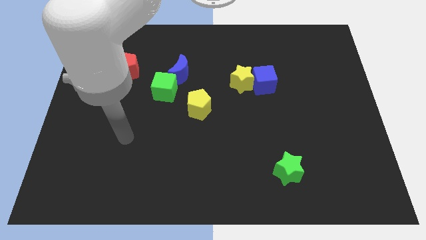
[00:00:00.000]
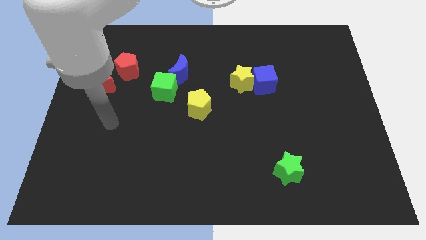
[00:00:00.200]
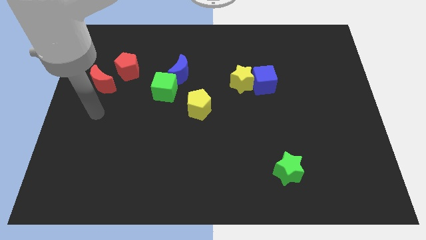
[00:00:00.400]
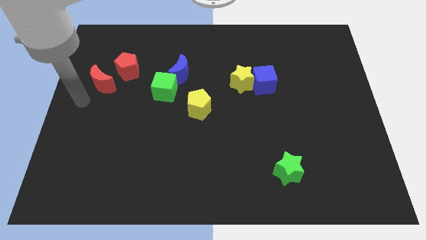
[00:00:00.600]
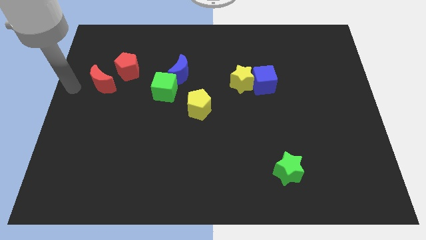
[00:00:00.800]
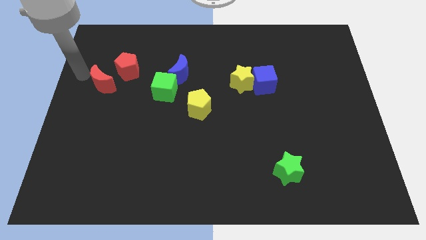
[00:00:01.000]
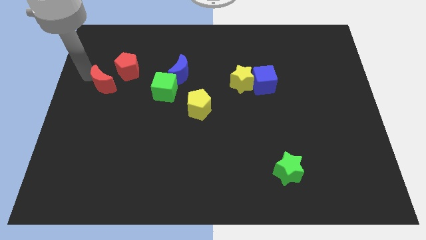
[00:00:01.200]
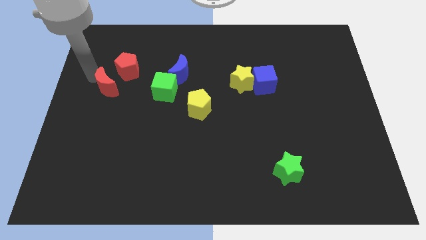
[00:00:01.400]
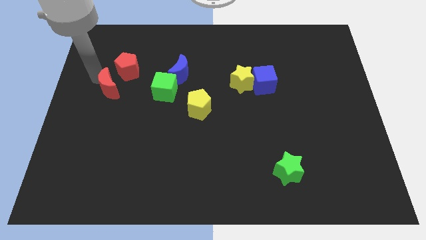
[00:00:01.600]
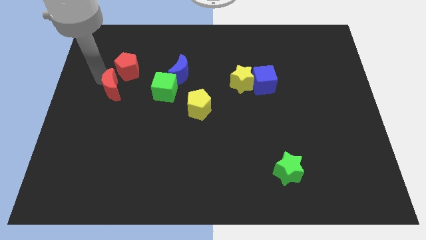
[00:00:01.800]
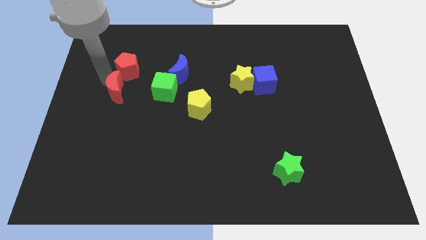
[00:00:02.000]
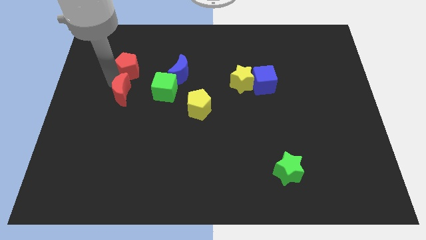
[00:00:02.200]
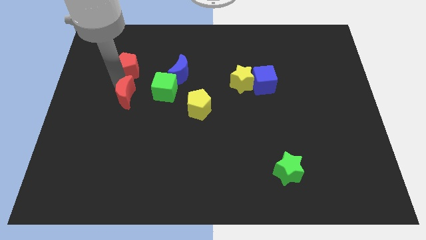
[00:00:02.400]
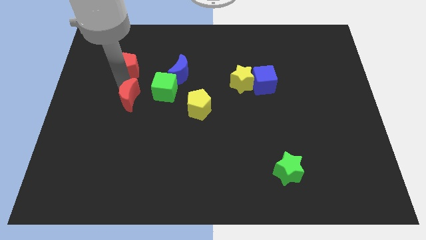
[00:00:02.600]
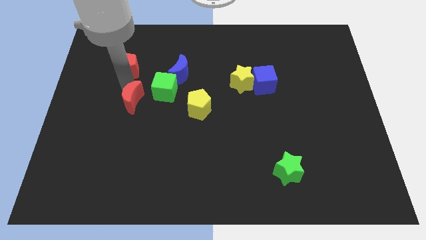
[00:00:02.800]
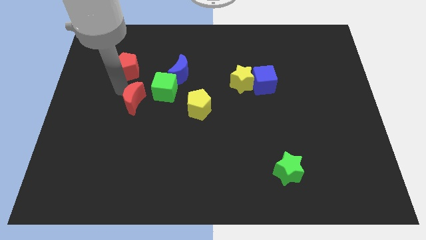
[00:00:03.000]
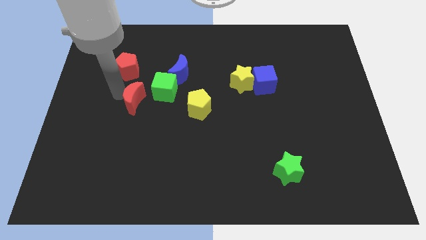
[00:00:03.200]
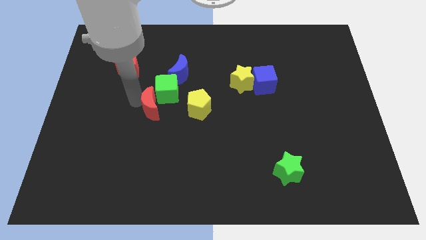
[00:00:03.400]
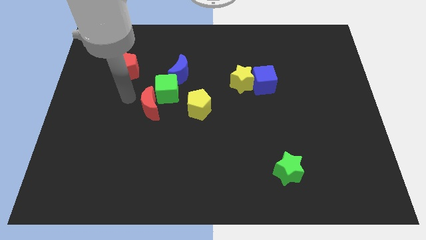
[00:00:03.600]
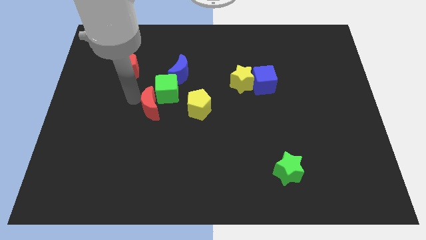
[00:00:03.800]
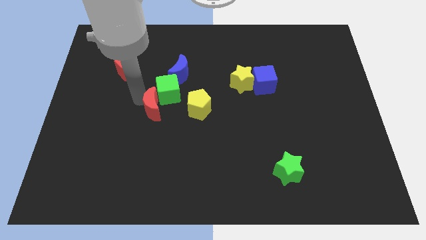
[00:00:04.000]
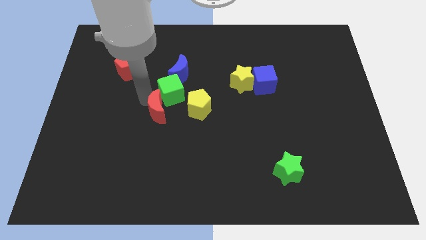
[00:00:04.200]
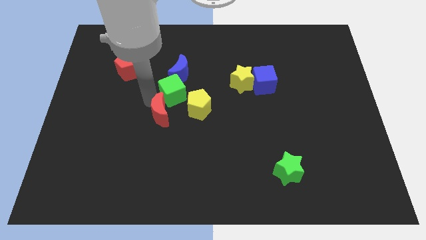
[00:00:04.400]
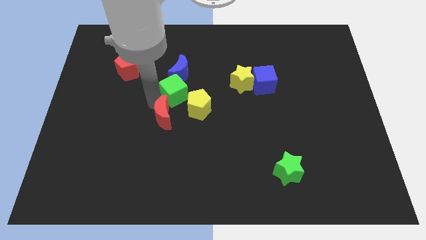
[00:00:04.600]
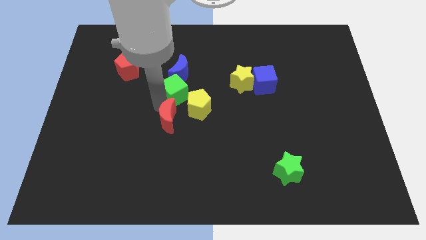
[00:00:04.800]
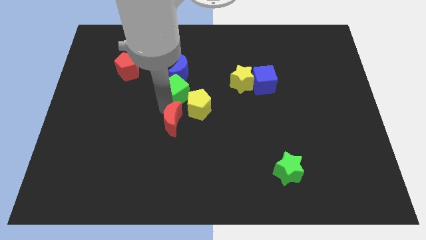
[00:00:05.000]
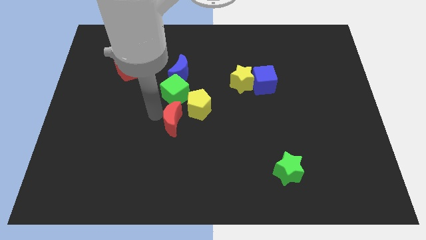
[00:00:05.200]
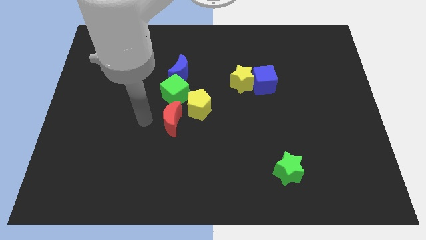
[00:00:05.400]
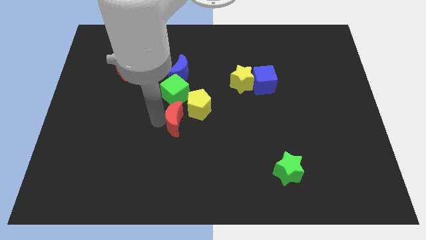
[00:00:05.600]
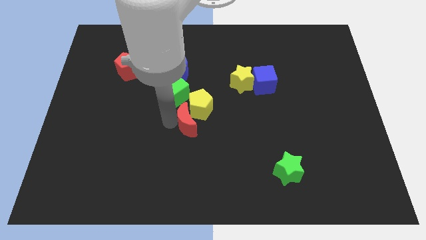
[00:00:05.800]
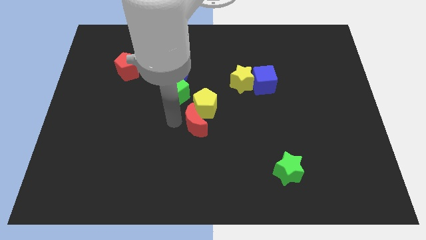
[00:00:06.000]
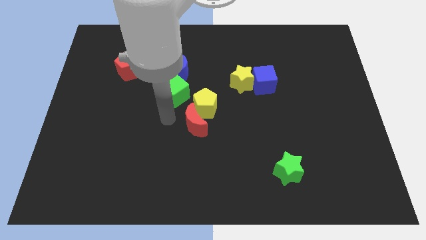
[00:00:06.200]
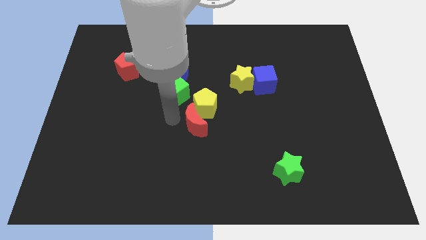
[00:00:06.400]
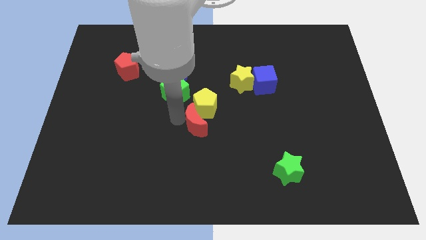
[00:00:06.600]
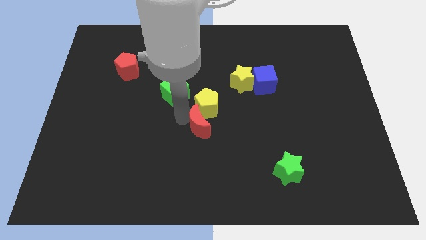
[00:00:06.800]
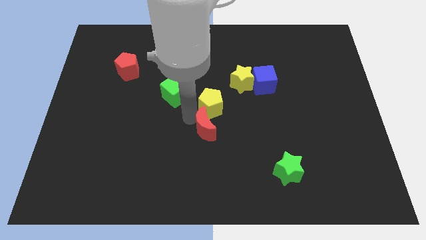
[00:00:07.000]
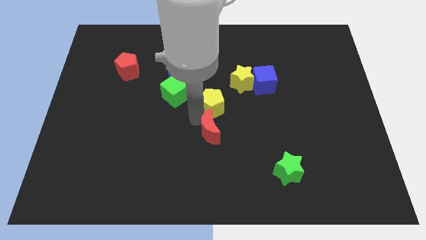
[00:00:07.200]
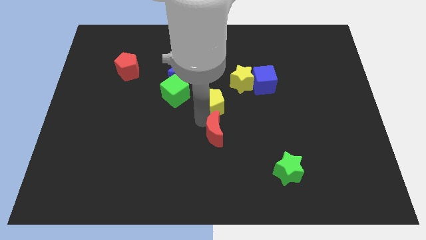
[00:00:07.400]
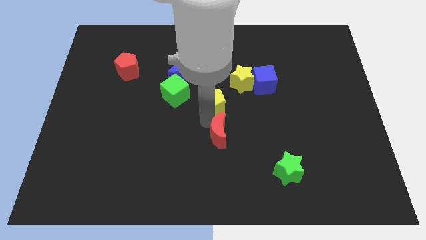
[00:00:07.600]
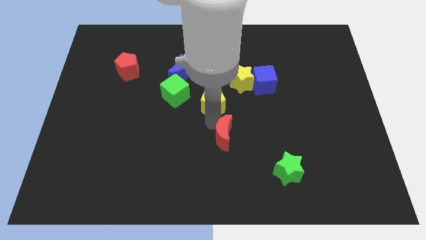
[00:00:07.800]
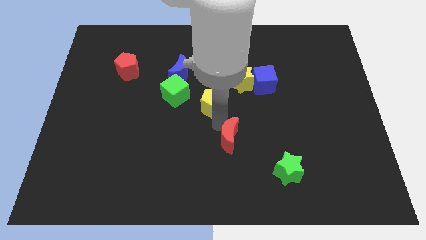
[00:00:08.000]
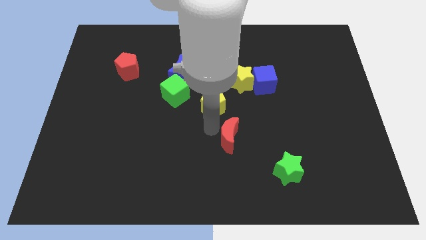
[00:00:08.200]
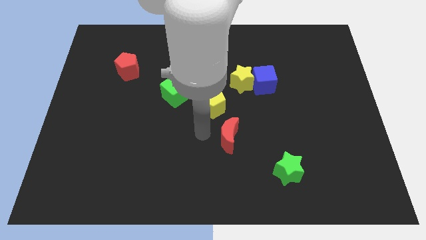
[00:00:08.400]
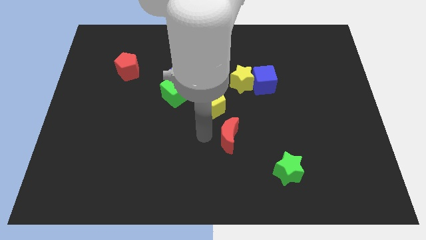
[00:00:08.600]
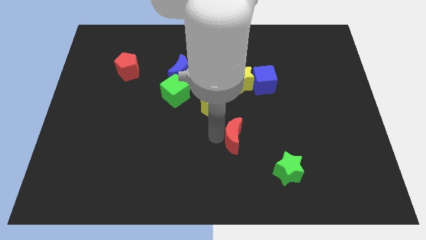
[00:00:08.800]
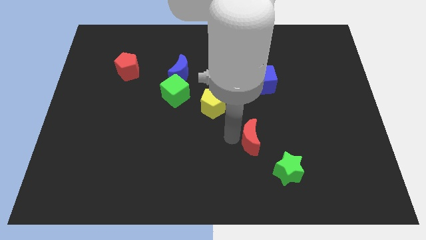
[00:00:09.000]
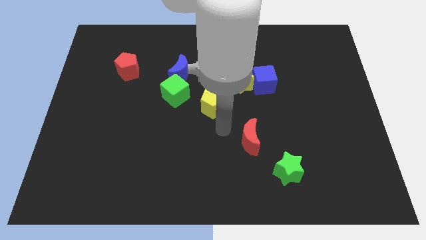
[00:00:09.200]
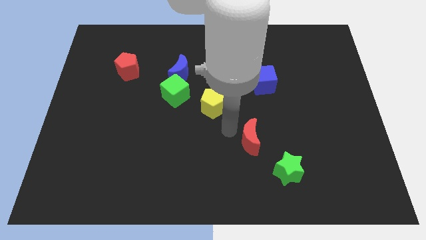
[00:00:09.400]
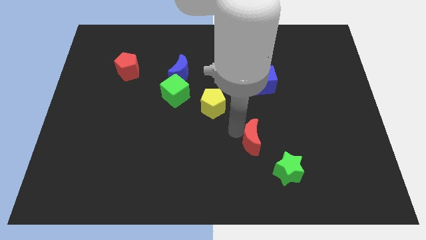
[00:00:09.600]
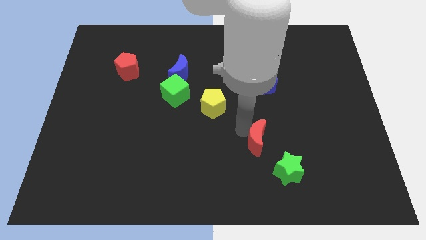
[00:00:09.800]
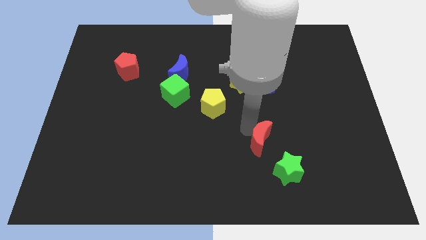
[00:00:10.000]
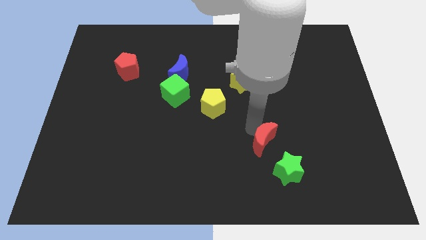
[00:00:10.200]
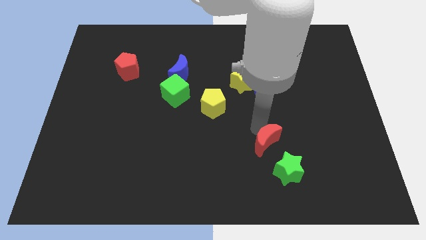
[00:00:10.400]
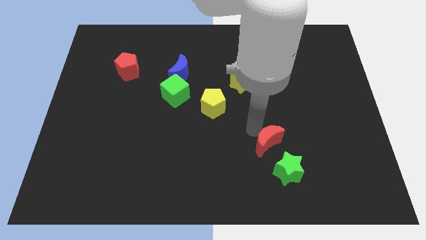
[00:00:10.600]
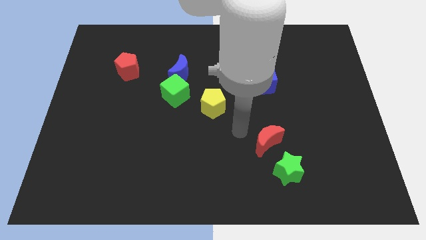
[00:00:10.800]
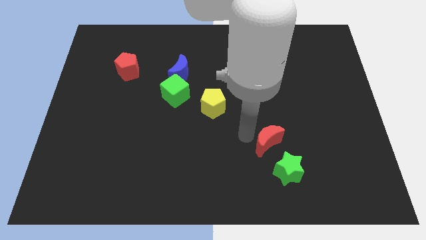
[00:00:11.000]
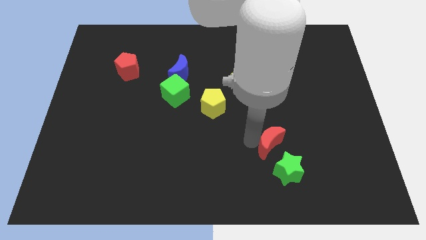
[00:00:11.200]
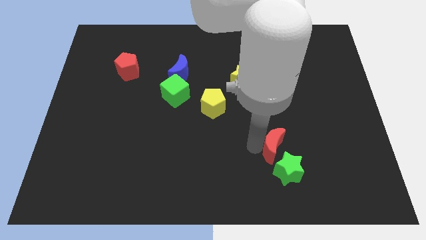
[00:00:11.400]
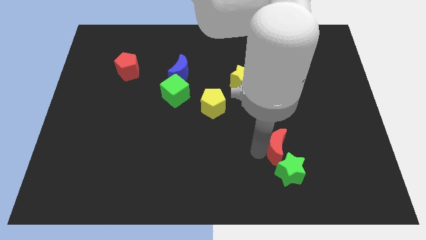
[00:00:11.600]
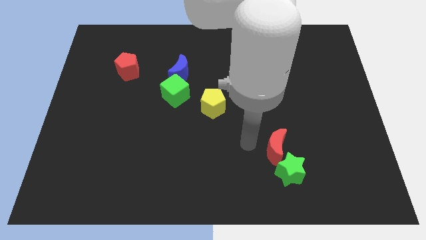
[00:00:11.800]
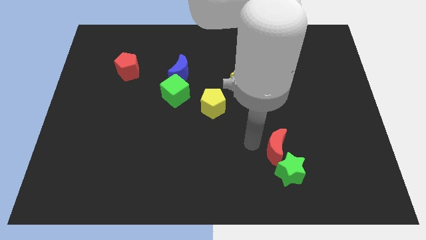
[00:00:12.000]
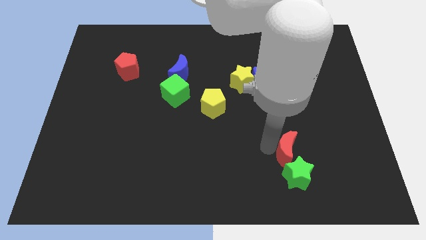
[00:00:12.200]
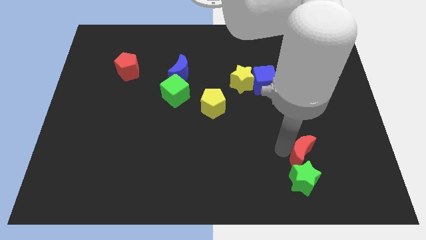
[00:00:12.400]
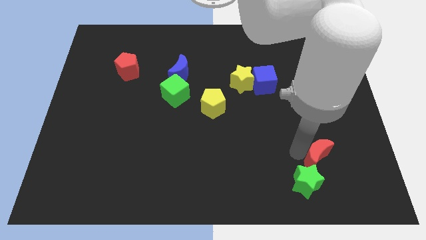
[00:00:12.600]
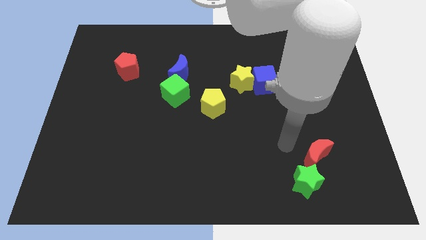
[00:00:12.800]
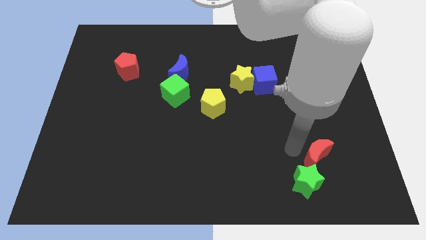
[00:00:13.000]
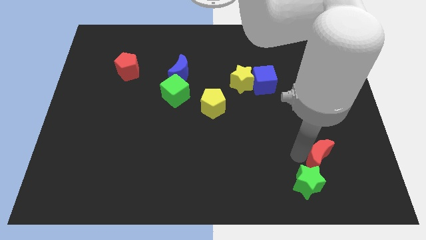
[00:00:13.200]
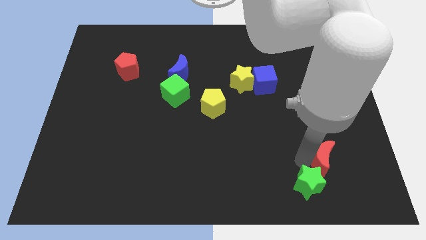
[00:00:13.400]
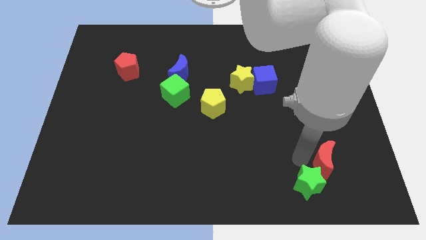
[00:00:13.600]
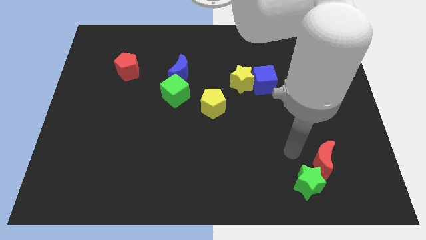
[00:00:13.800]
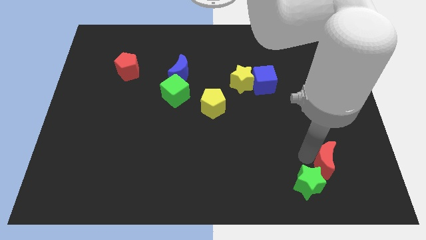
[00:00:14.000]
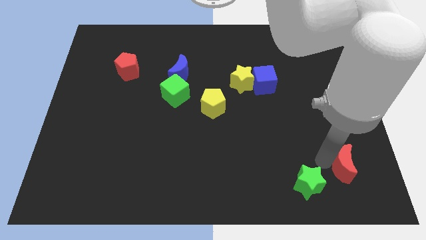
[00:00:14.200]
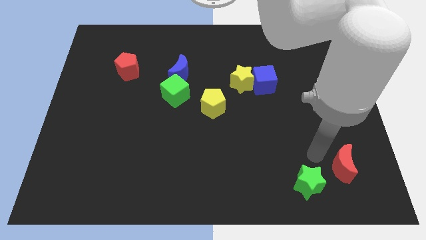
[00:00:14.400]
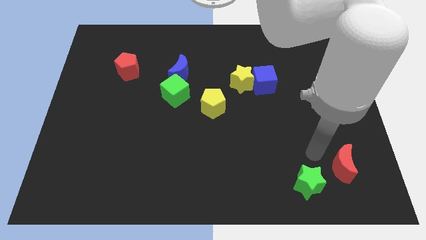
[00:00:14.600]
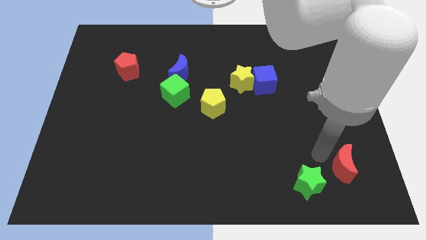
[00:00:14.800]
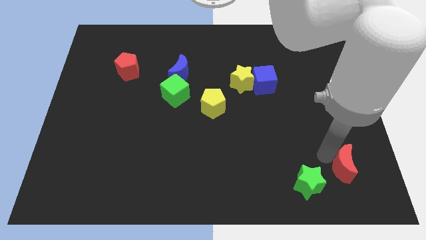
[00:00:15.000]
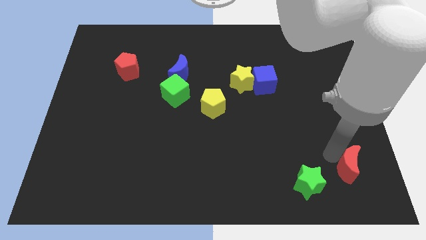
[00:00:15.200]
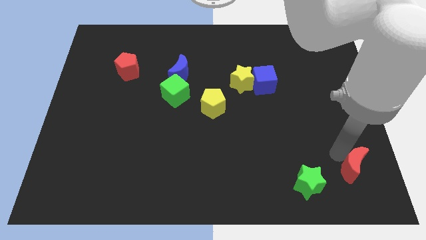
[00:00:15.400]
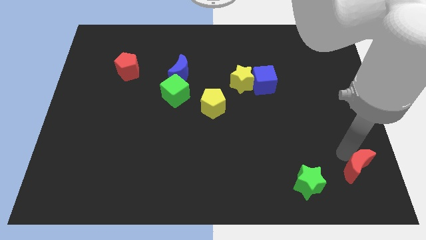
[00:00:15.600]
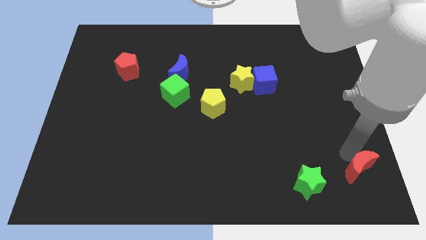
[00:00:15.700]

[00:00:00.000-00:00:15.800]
move the red moon to the bottom right
